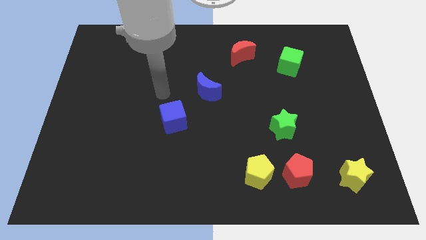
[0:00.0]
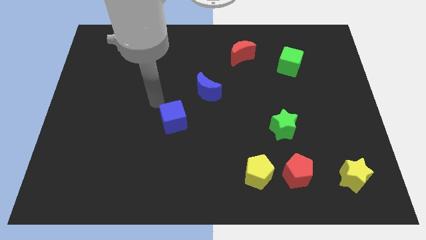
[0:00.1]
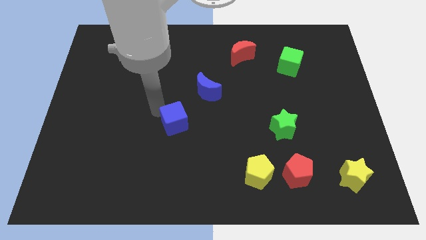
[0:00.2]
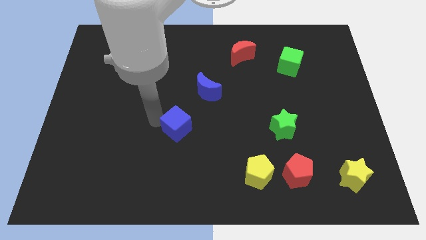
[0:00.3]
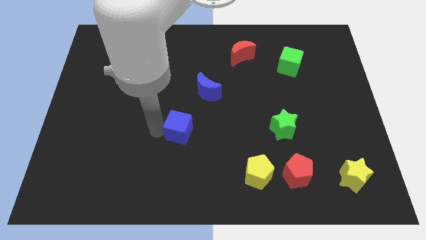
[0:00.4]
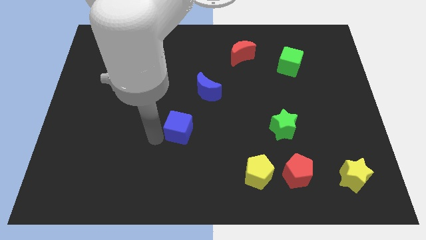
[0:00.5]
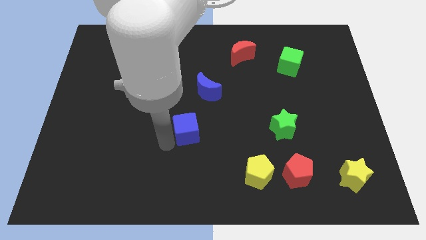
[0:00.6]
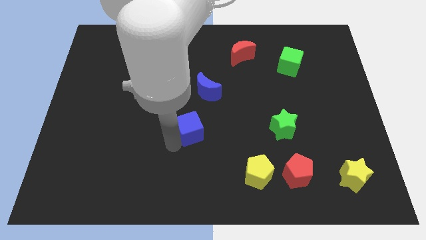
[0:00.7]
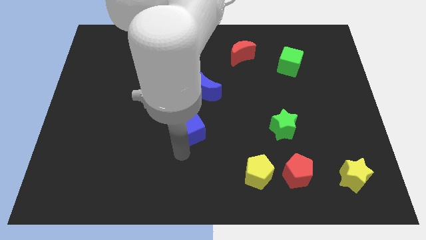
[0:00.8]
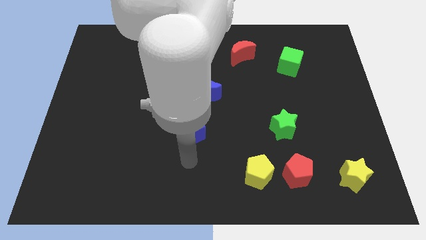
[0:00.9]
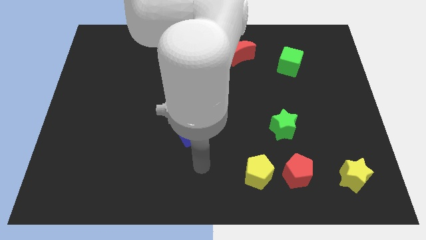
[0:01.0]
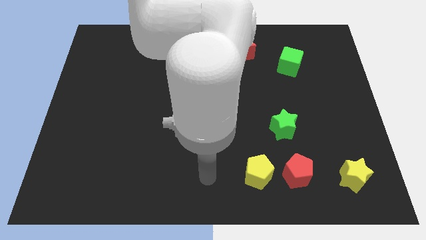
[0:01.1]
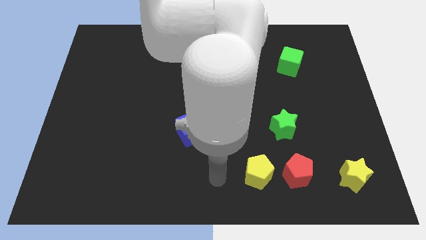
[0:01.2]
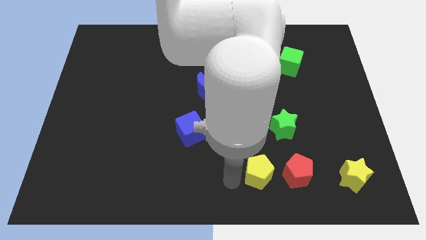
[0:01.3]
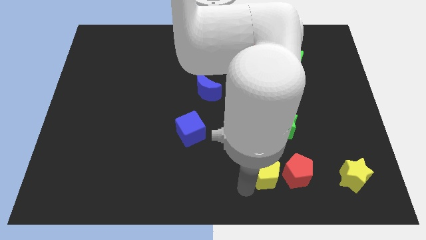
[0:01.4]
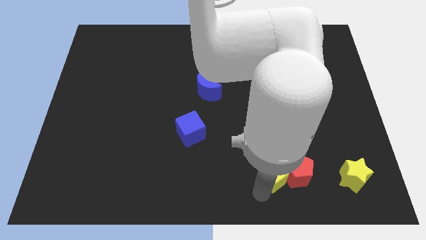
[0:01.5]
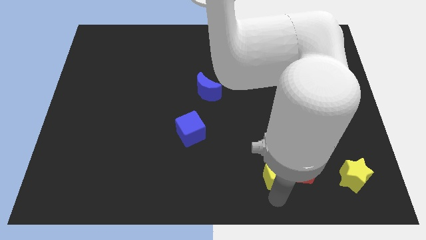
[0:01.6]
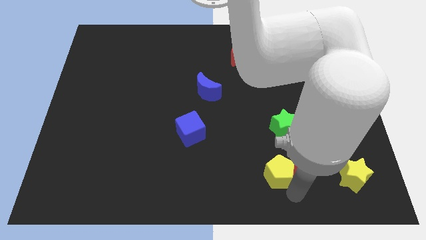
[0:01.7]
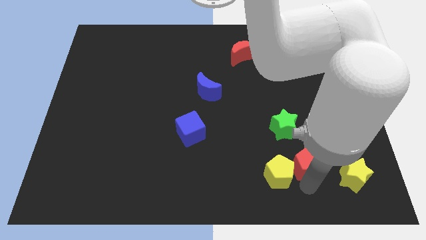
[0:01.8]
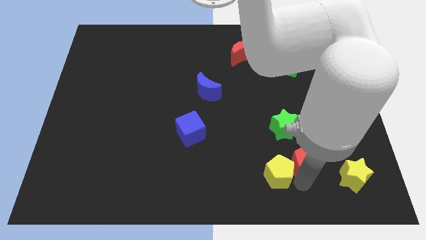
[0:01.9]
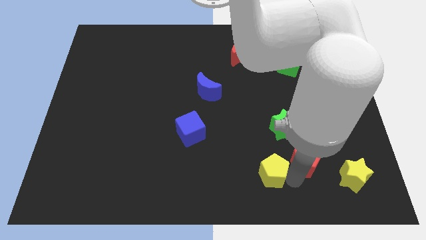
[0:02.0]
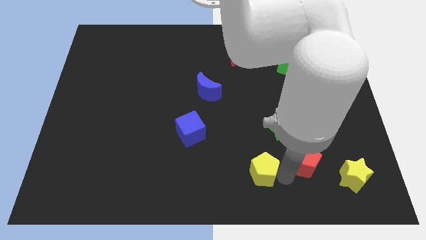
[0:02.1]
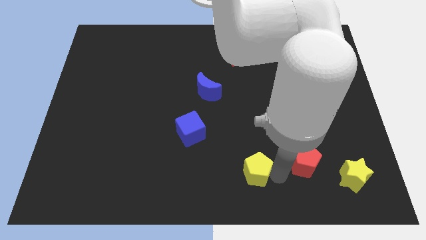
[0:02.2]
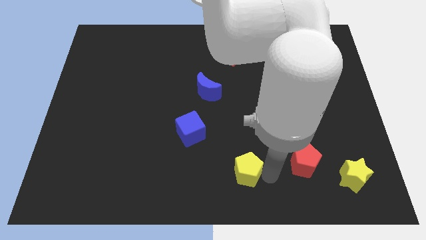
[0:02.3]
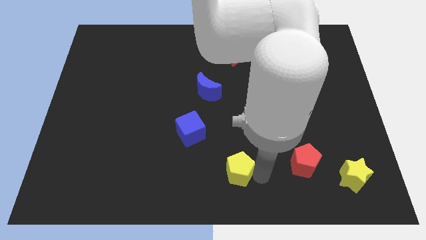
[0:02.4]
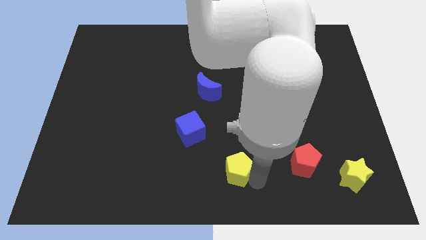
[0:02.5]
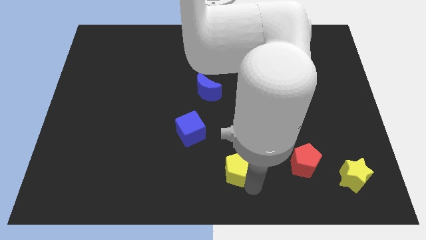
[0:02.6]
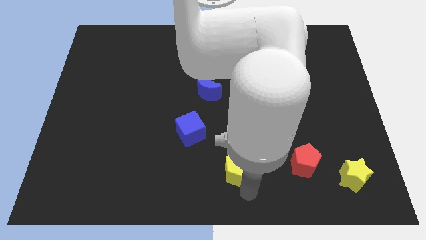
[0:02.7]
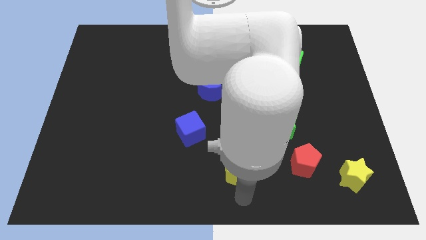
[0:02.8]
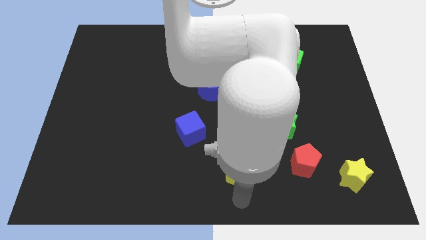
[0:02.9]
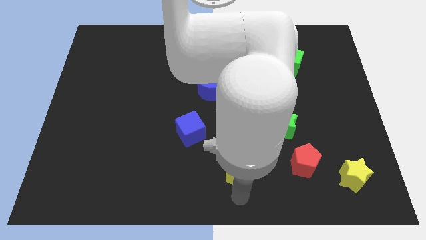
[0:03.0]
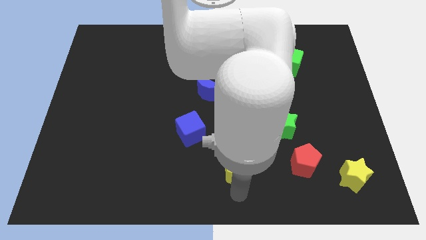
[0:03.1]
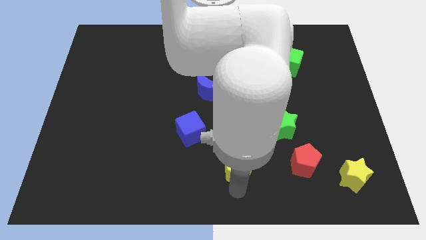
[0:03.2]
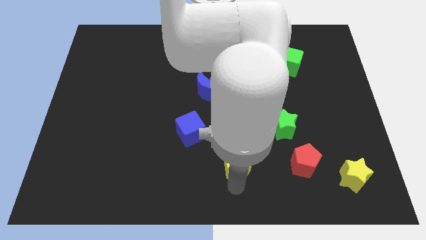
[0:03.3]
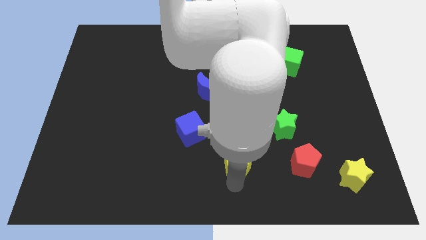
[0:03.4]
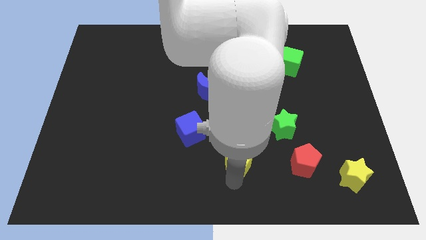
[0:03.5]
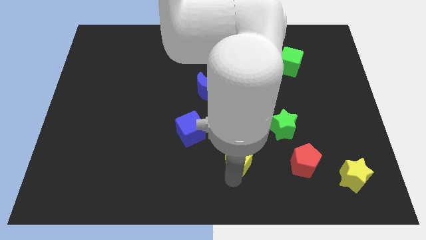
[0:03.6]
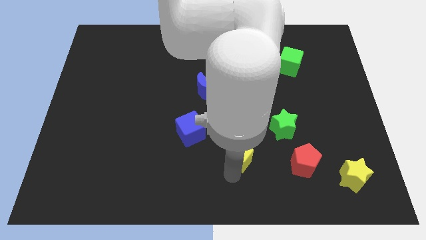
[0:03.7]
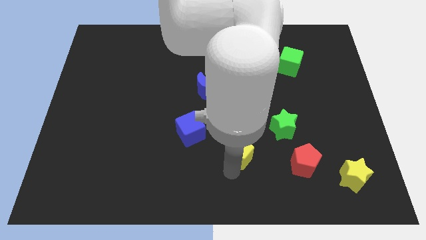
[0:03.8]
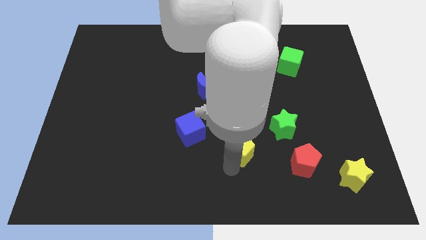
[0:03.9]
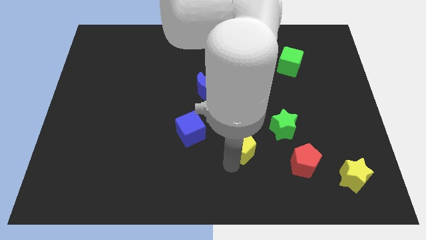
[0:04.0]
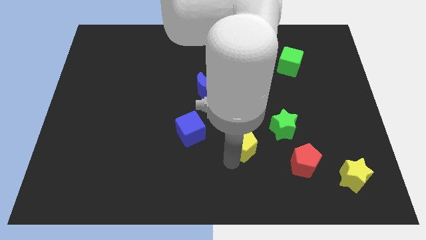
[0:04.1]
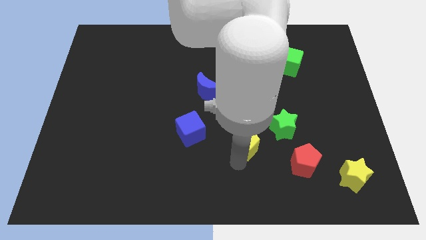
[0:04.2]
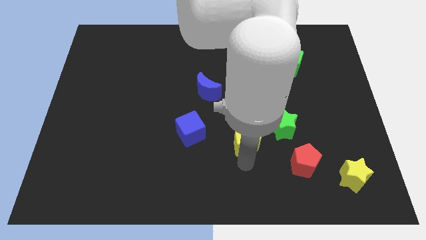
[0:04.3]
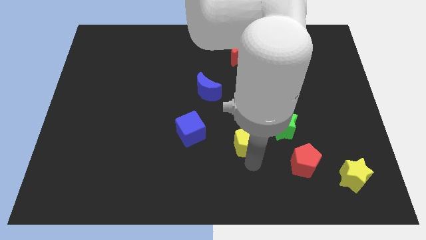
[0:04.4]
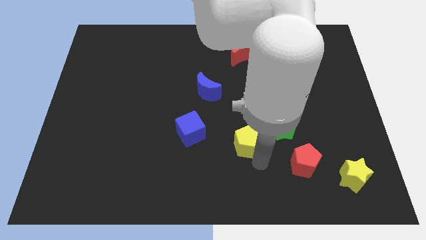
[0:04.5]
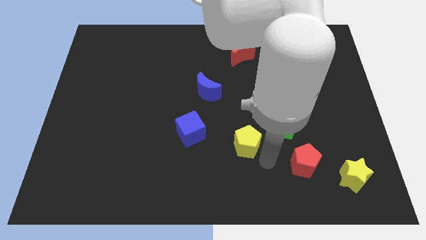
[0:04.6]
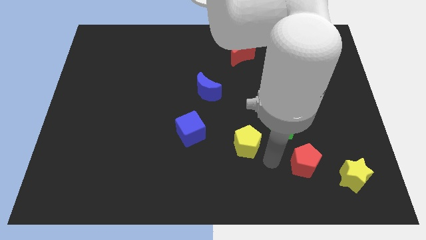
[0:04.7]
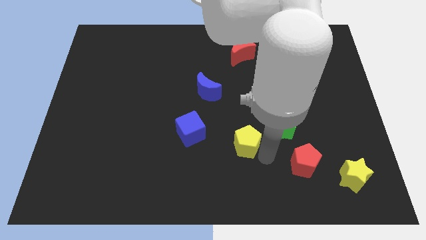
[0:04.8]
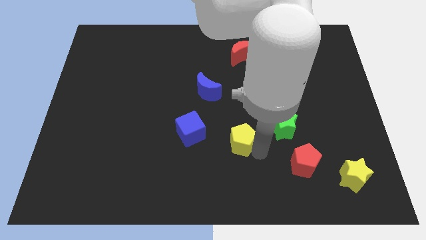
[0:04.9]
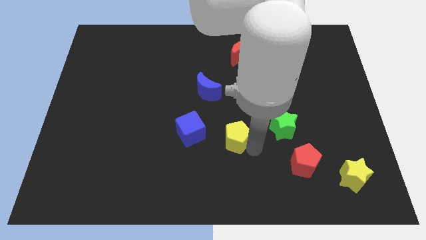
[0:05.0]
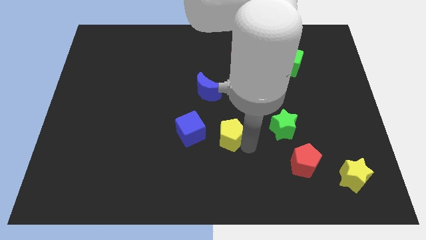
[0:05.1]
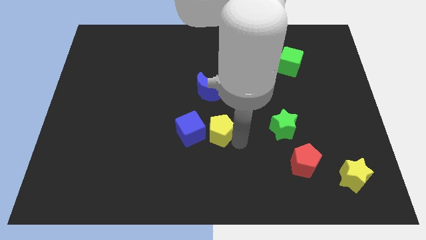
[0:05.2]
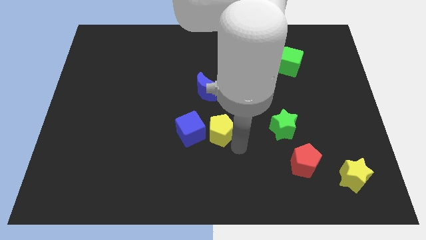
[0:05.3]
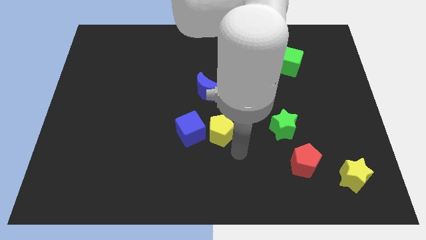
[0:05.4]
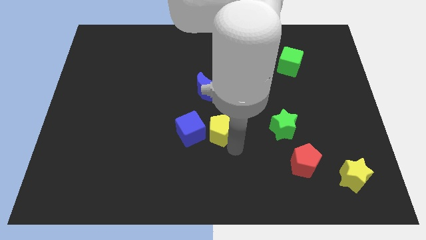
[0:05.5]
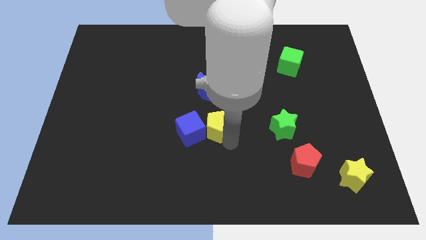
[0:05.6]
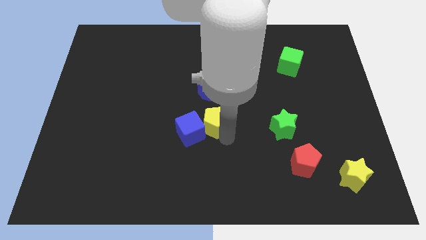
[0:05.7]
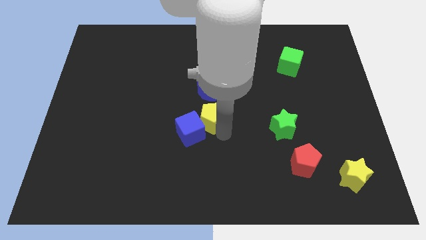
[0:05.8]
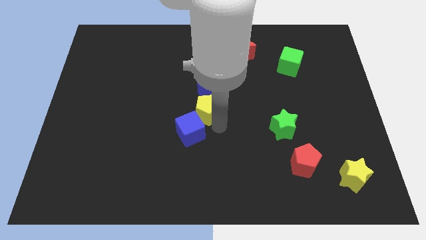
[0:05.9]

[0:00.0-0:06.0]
put the yellow pentagon above the blue cube

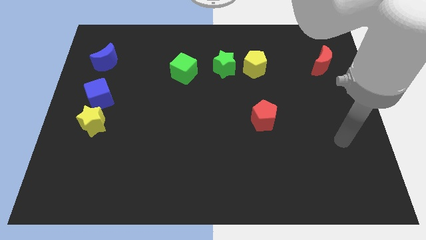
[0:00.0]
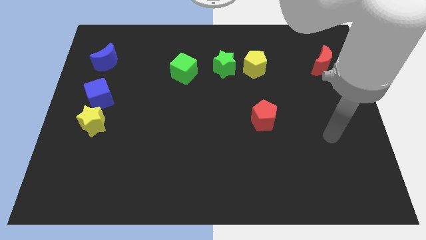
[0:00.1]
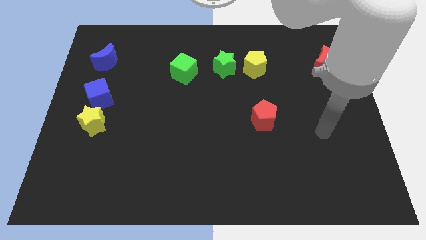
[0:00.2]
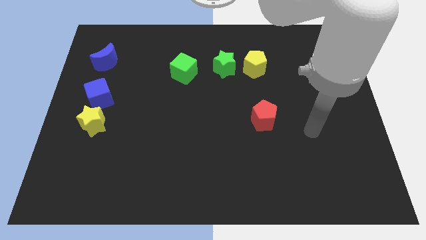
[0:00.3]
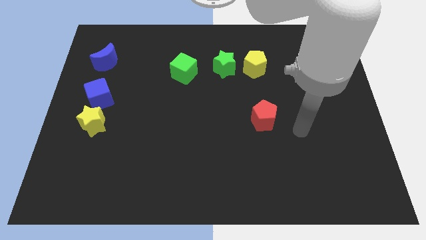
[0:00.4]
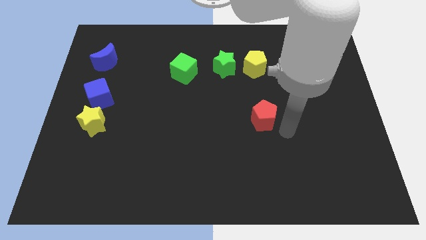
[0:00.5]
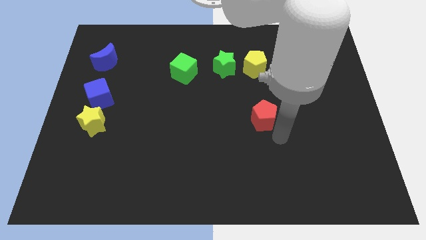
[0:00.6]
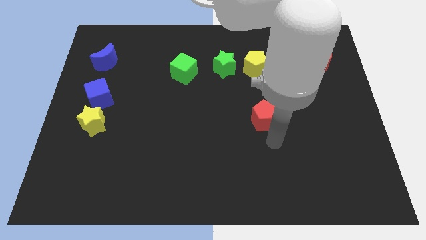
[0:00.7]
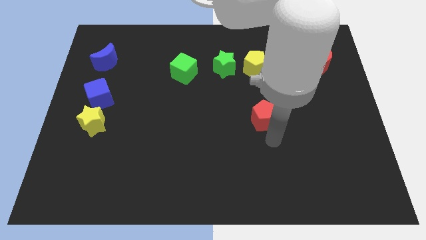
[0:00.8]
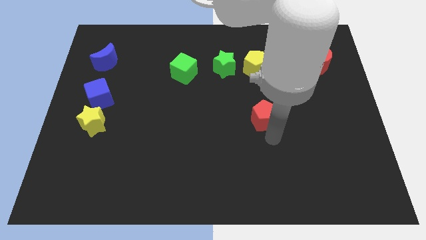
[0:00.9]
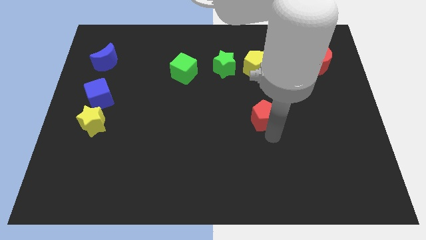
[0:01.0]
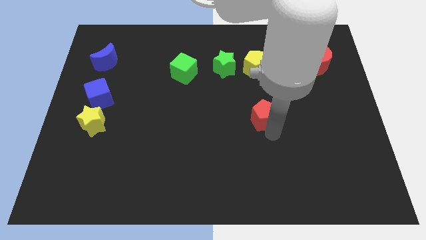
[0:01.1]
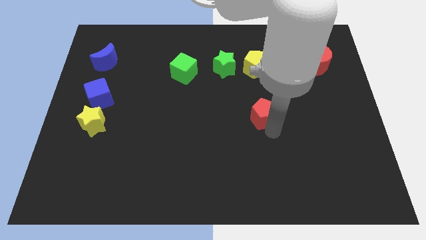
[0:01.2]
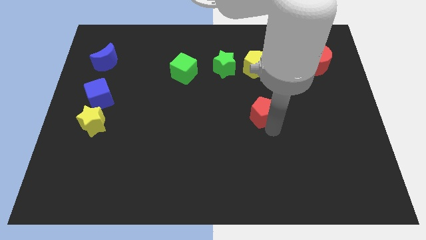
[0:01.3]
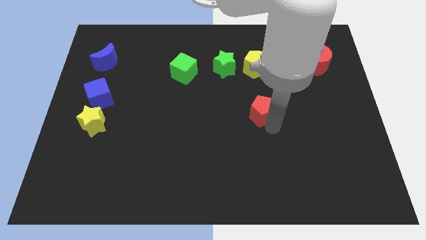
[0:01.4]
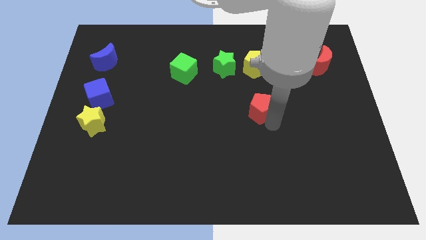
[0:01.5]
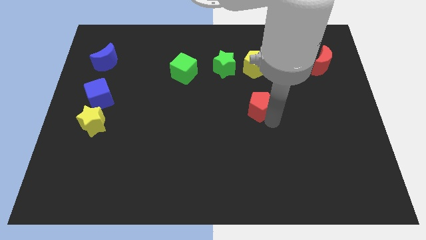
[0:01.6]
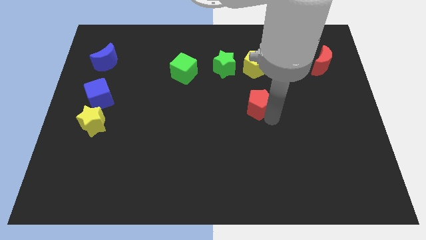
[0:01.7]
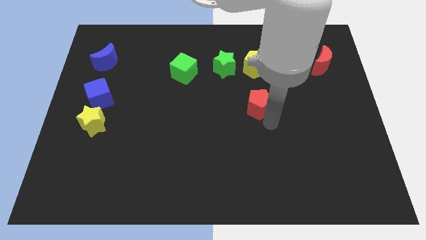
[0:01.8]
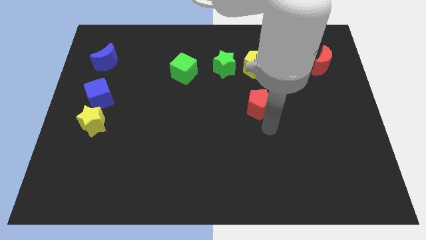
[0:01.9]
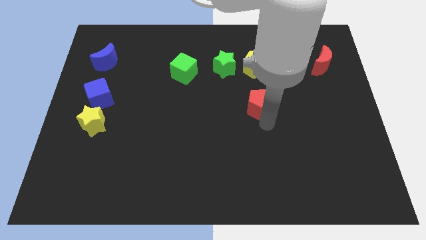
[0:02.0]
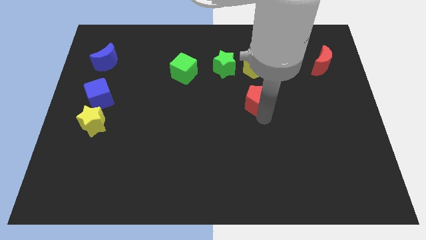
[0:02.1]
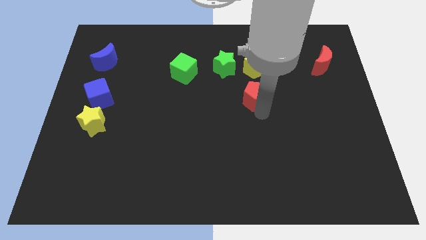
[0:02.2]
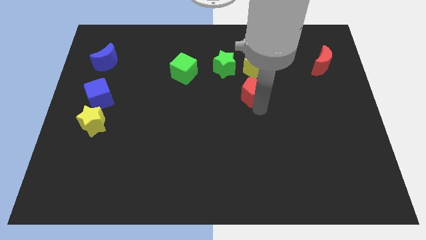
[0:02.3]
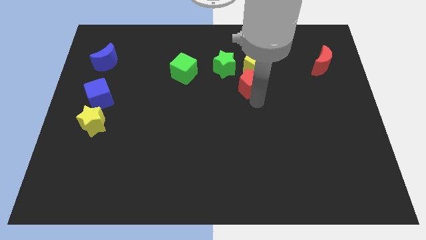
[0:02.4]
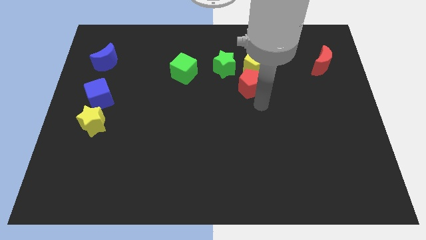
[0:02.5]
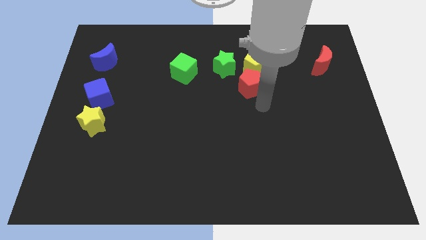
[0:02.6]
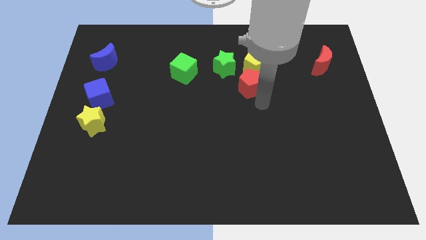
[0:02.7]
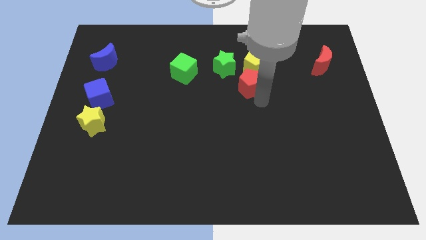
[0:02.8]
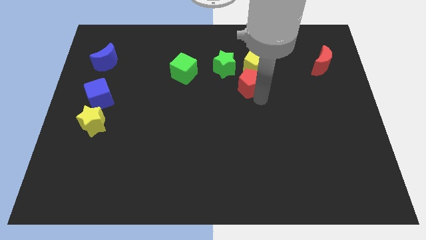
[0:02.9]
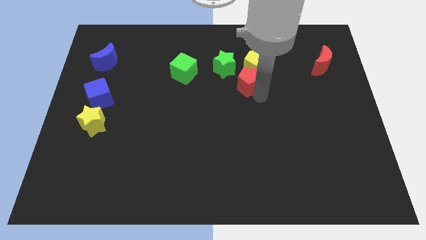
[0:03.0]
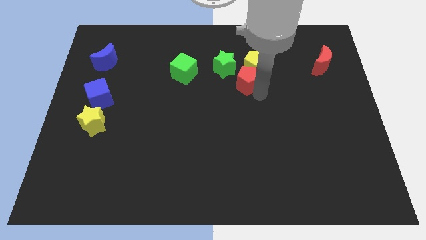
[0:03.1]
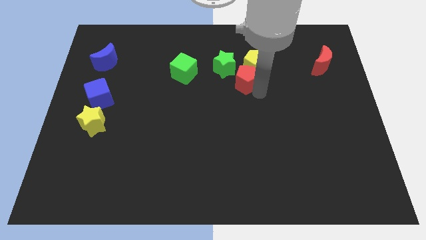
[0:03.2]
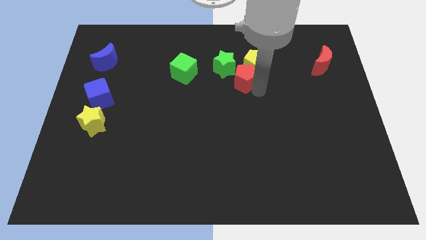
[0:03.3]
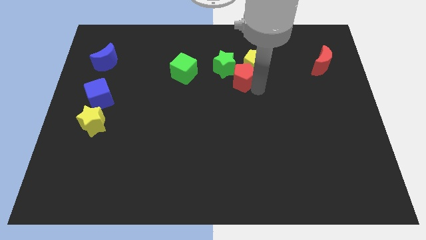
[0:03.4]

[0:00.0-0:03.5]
move the red pentagon to the right side of the green cube
